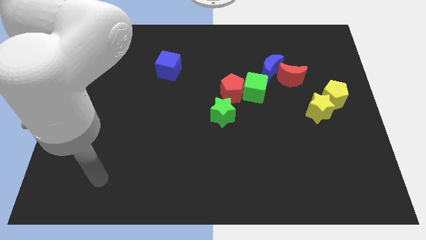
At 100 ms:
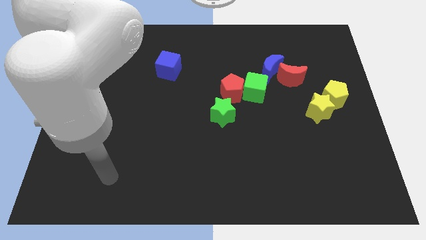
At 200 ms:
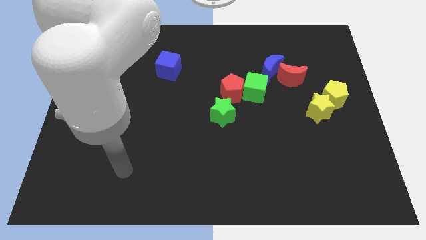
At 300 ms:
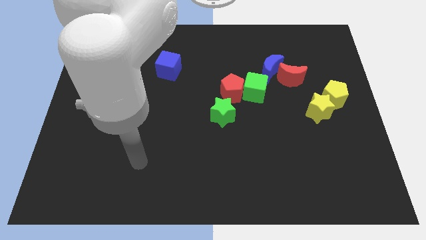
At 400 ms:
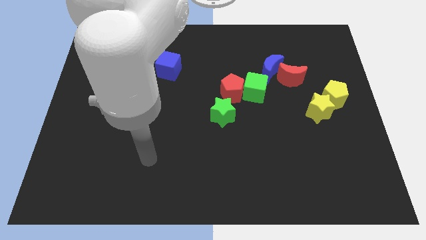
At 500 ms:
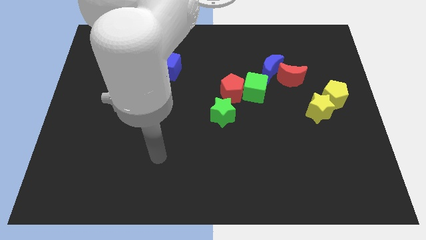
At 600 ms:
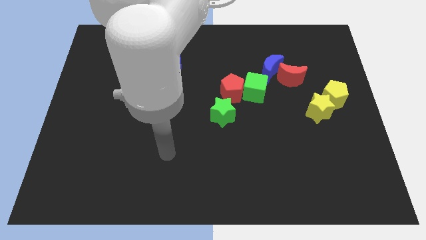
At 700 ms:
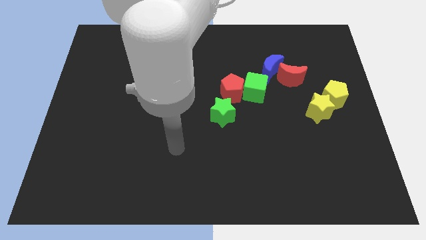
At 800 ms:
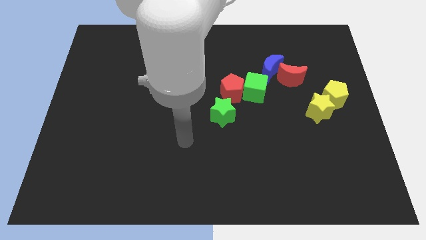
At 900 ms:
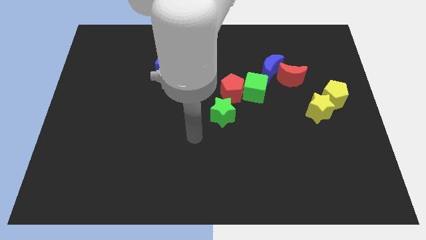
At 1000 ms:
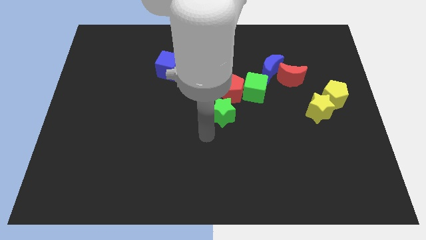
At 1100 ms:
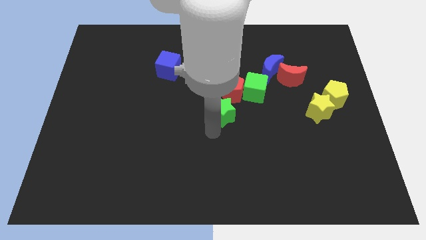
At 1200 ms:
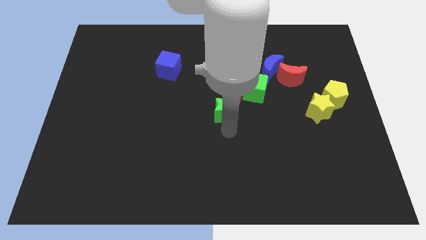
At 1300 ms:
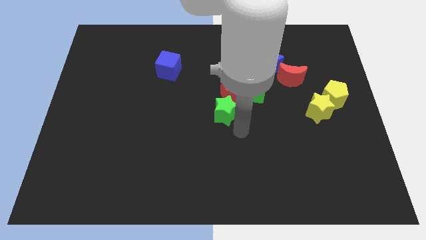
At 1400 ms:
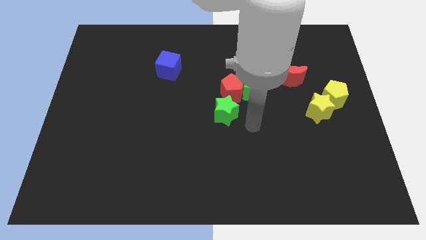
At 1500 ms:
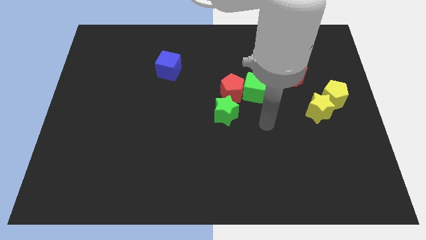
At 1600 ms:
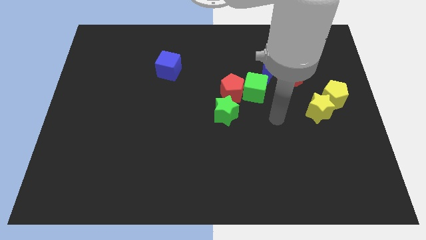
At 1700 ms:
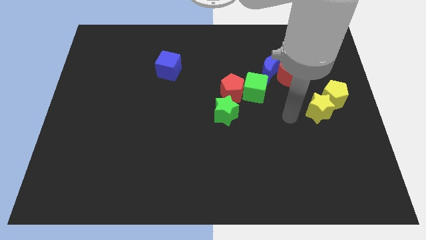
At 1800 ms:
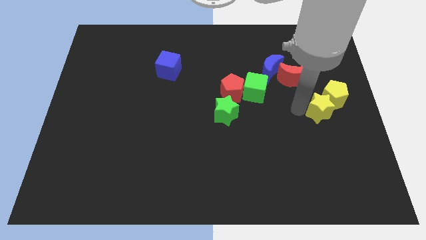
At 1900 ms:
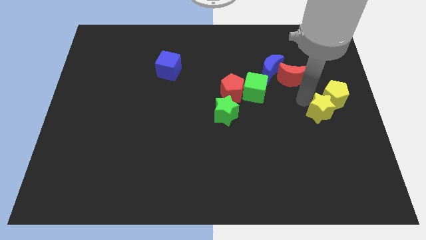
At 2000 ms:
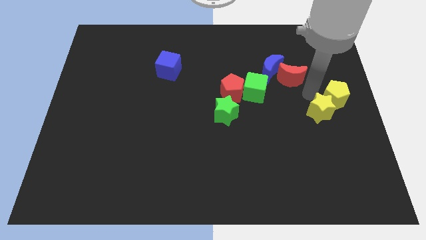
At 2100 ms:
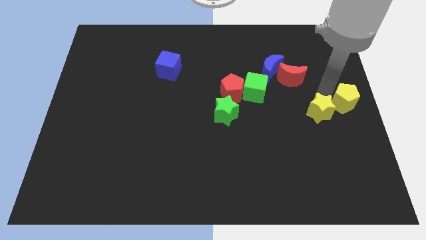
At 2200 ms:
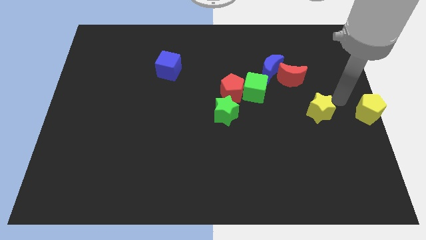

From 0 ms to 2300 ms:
move the yellow star away from the yellow pentagon

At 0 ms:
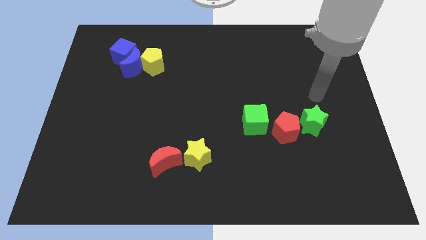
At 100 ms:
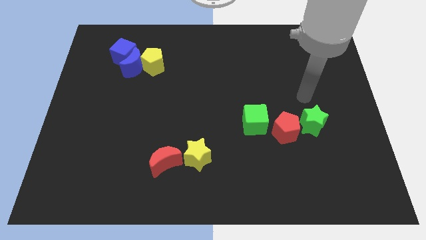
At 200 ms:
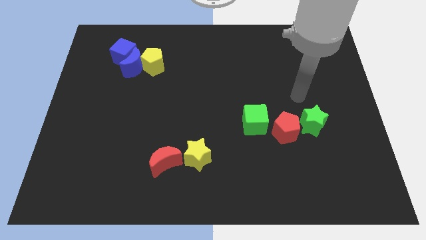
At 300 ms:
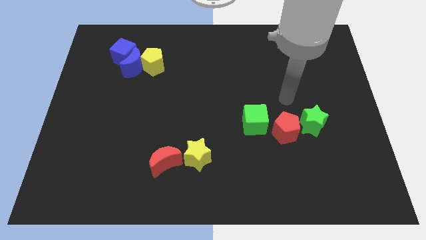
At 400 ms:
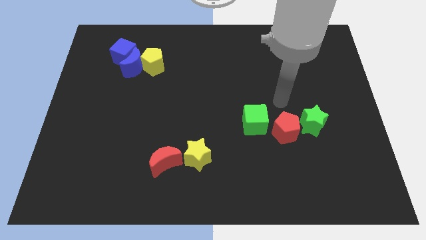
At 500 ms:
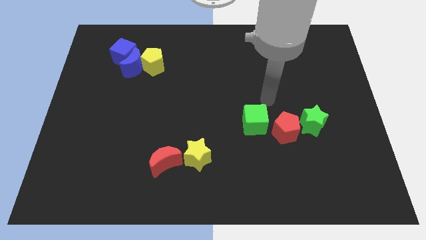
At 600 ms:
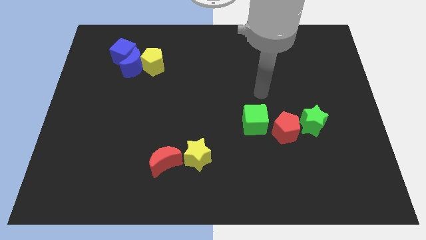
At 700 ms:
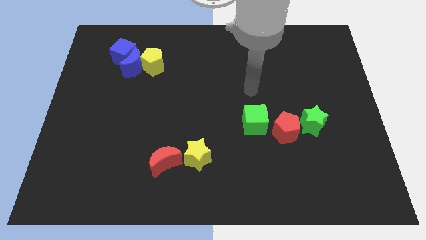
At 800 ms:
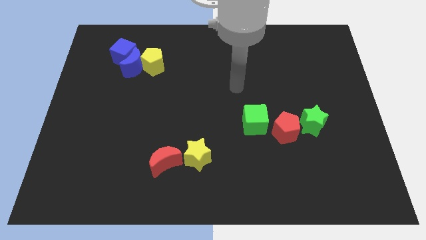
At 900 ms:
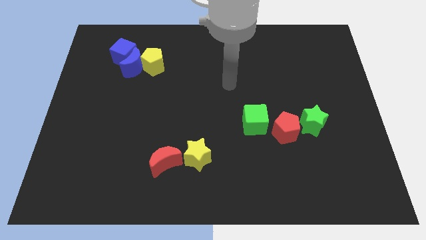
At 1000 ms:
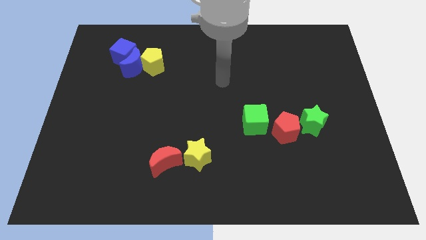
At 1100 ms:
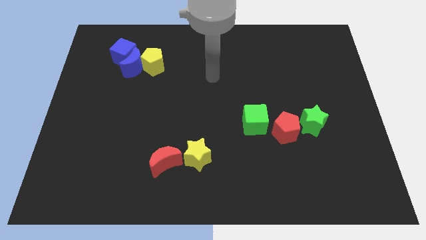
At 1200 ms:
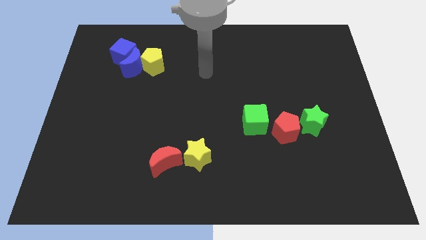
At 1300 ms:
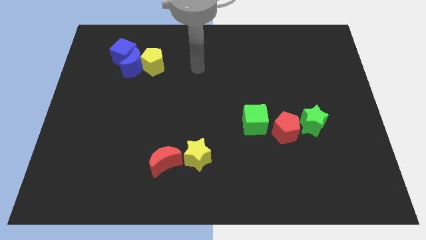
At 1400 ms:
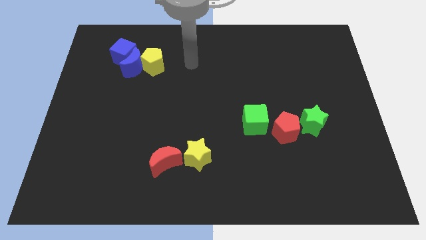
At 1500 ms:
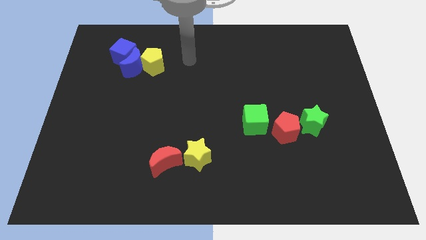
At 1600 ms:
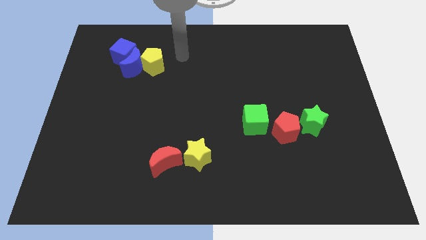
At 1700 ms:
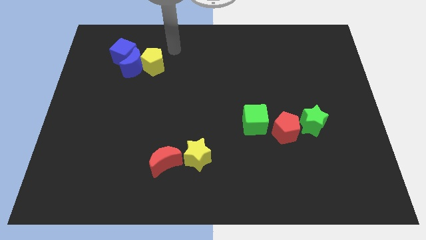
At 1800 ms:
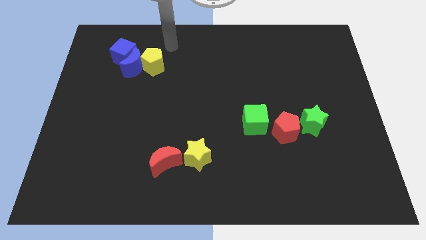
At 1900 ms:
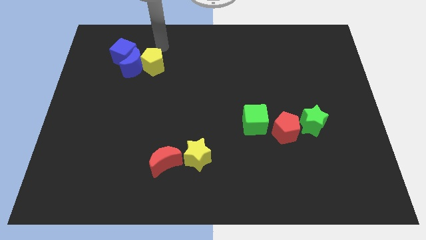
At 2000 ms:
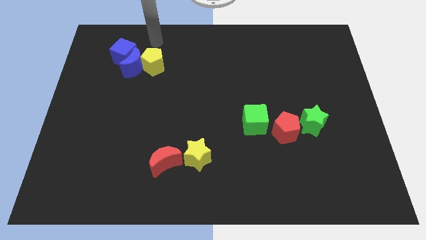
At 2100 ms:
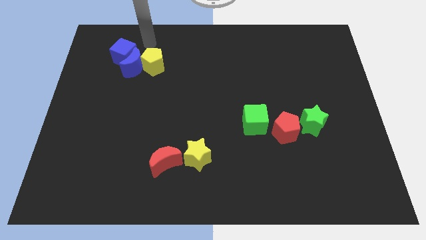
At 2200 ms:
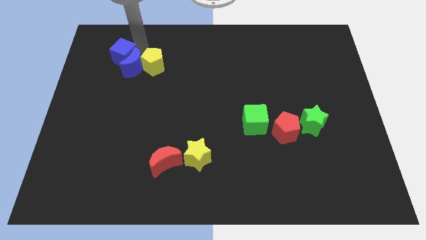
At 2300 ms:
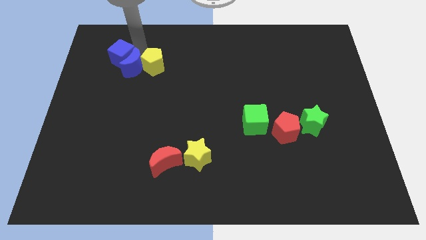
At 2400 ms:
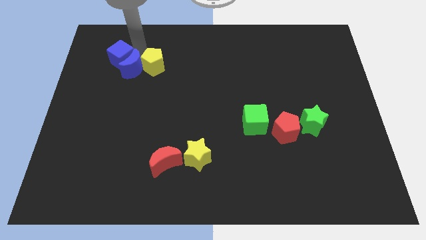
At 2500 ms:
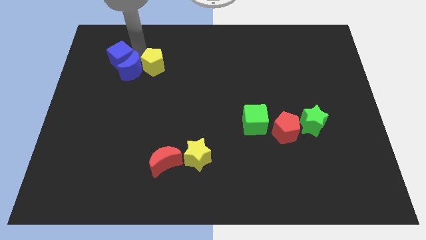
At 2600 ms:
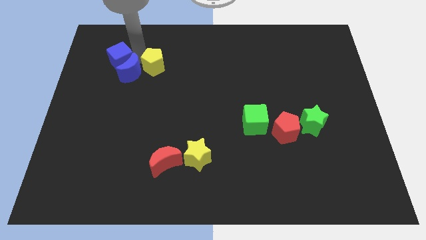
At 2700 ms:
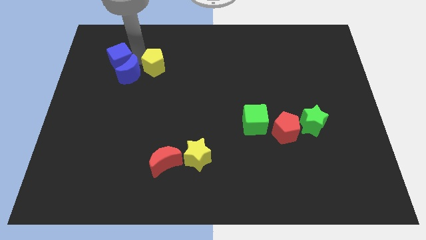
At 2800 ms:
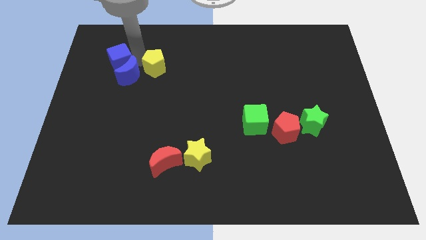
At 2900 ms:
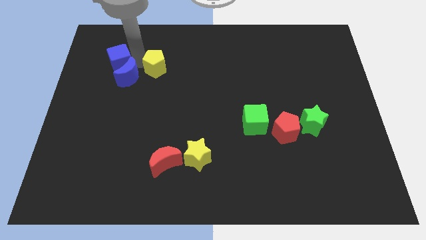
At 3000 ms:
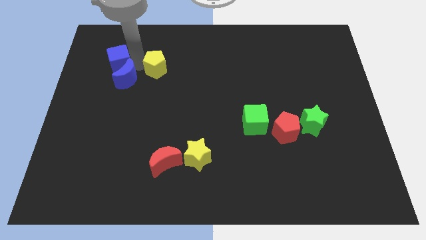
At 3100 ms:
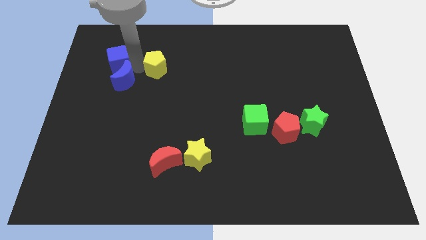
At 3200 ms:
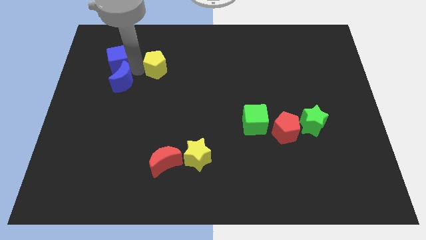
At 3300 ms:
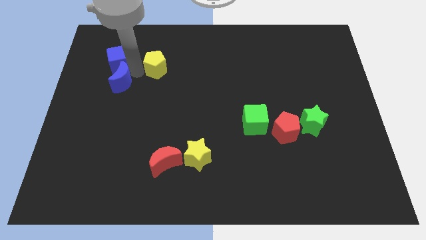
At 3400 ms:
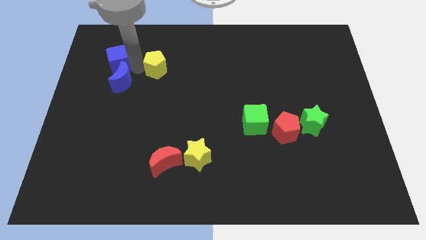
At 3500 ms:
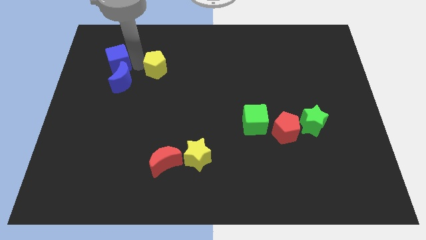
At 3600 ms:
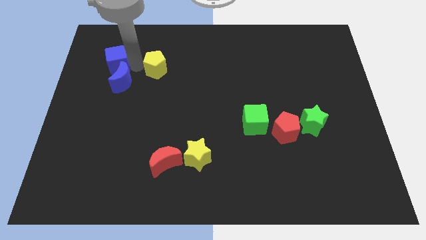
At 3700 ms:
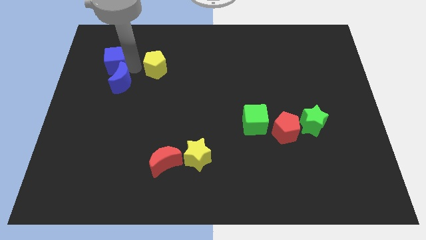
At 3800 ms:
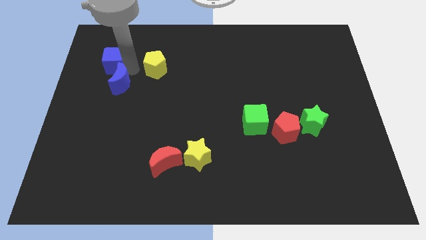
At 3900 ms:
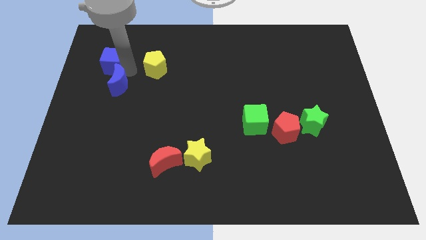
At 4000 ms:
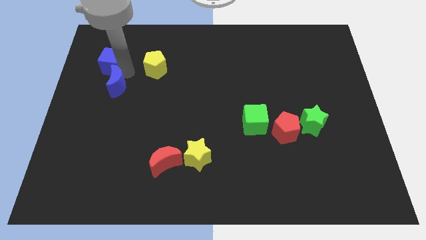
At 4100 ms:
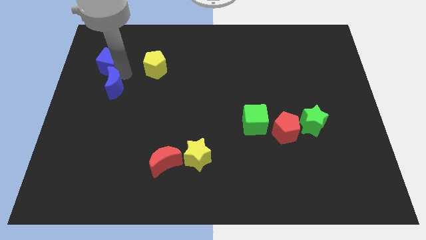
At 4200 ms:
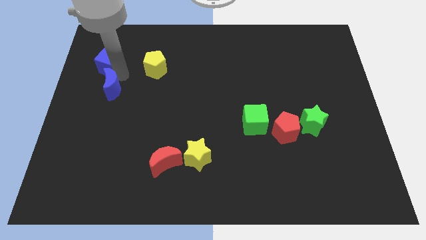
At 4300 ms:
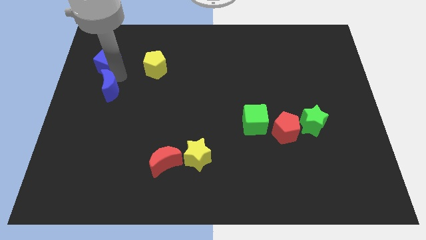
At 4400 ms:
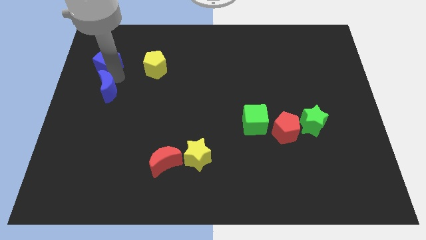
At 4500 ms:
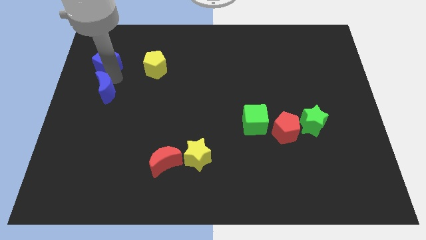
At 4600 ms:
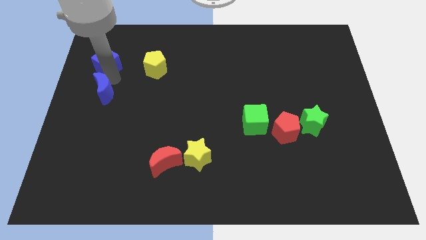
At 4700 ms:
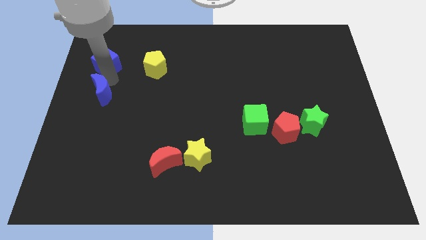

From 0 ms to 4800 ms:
separate the blue moon from the yellow pentagon and blue cube

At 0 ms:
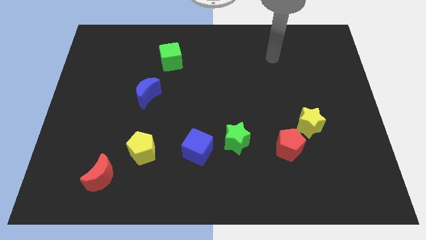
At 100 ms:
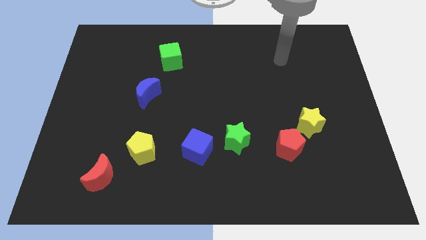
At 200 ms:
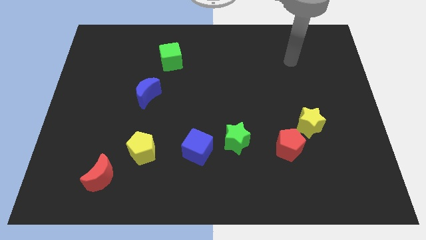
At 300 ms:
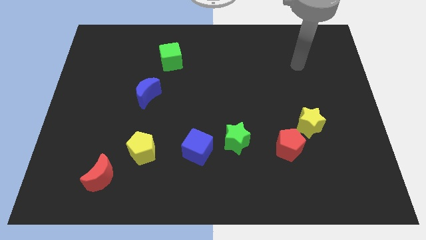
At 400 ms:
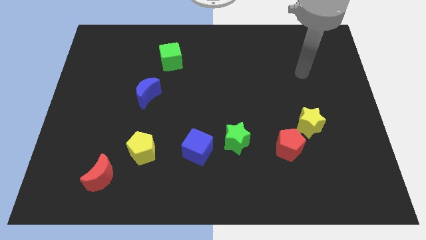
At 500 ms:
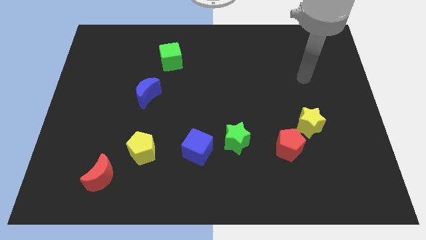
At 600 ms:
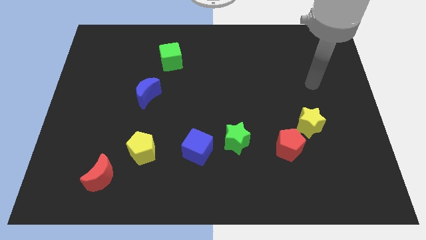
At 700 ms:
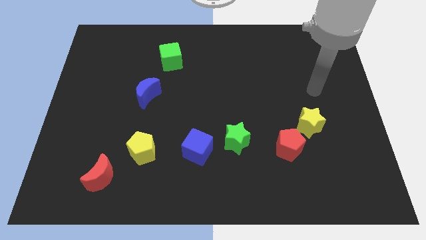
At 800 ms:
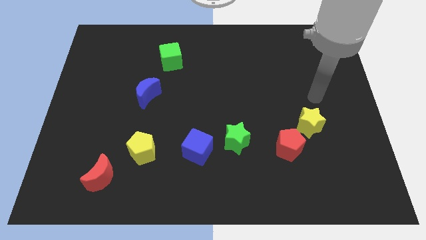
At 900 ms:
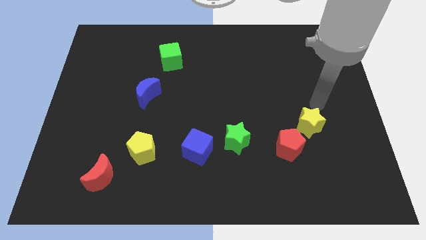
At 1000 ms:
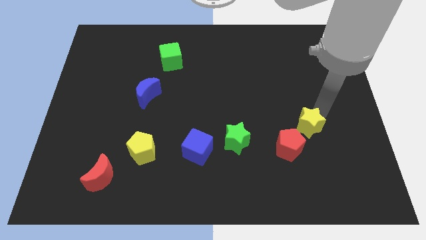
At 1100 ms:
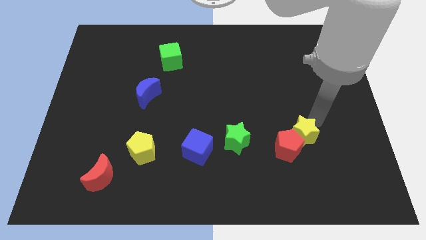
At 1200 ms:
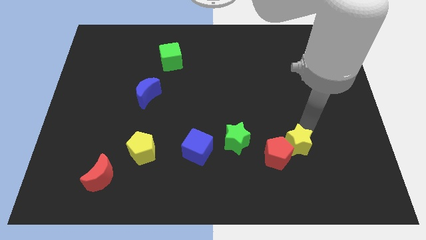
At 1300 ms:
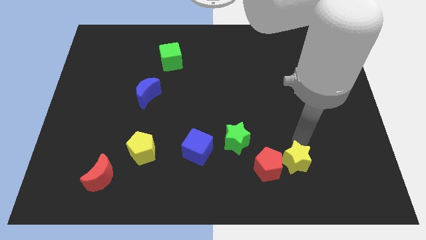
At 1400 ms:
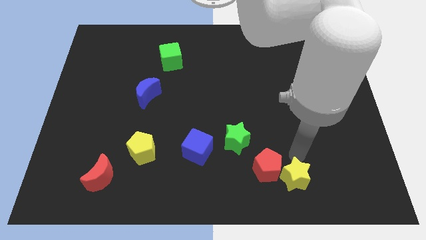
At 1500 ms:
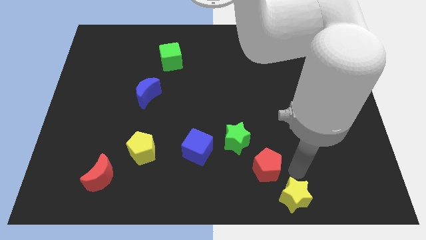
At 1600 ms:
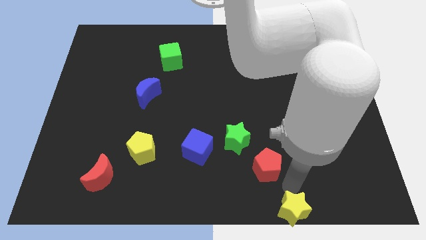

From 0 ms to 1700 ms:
separate the red pentagon from the yellow star

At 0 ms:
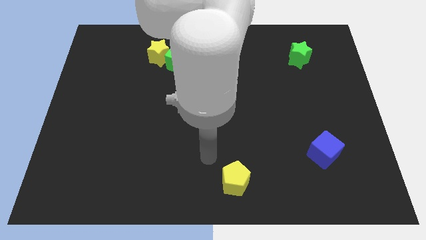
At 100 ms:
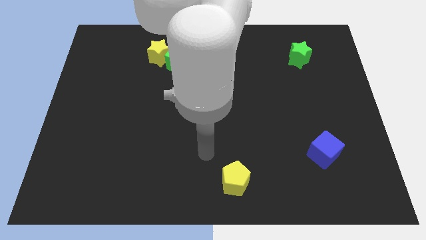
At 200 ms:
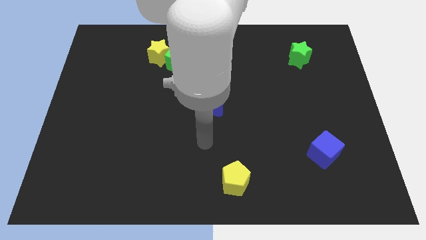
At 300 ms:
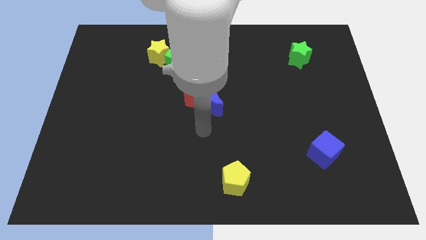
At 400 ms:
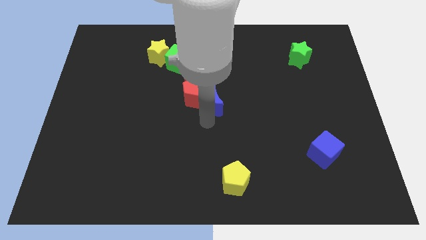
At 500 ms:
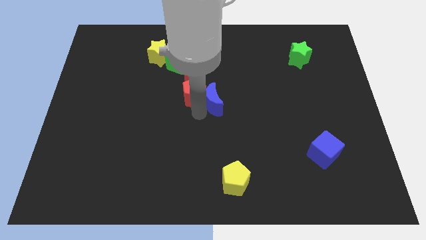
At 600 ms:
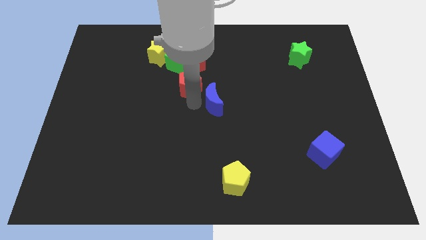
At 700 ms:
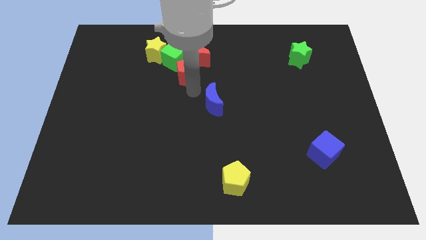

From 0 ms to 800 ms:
move the blue moon away from the red pentagon
